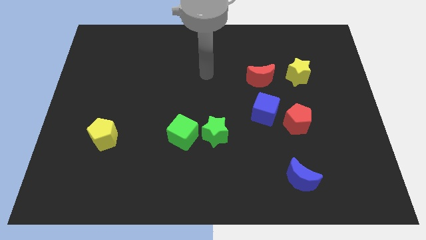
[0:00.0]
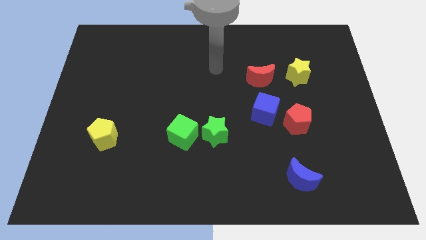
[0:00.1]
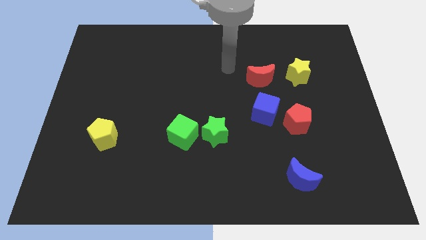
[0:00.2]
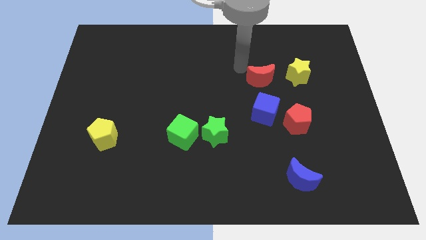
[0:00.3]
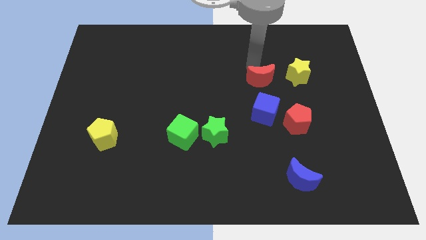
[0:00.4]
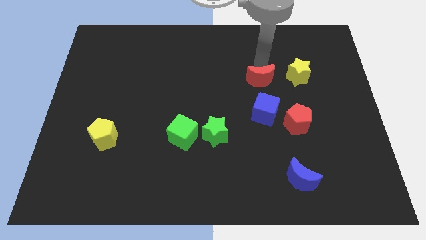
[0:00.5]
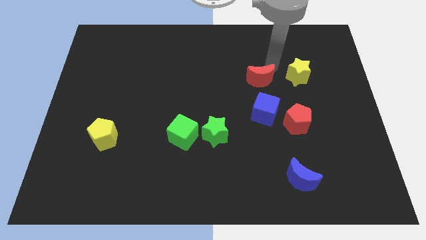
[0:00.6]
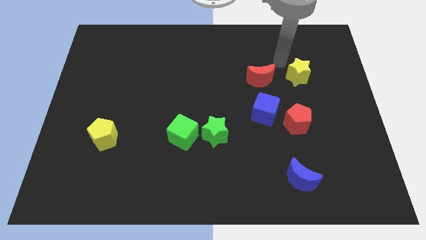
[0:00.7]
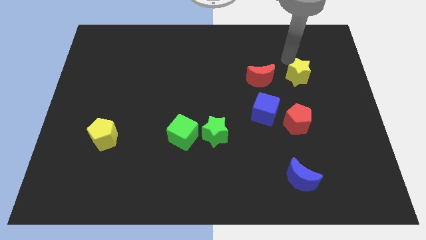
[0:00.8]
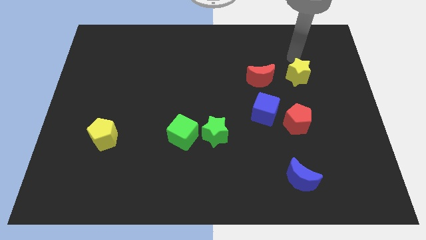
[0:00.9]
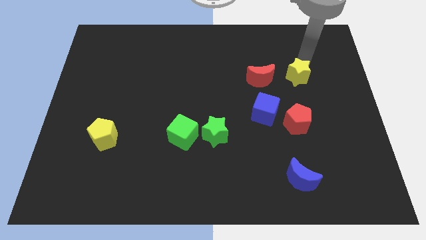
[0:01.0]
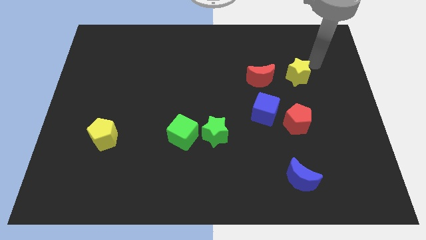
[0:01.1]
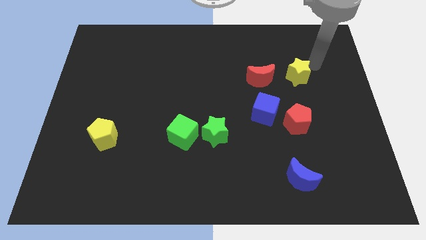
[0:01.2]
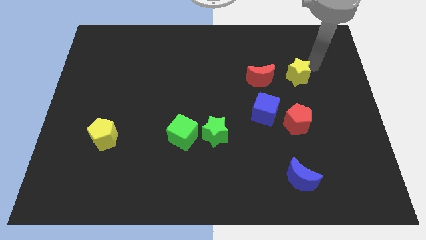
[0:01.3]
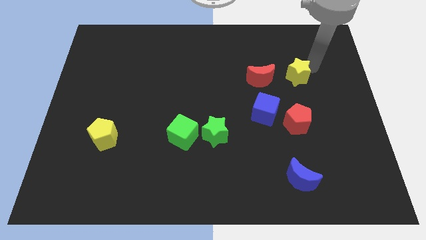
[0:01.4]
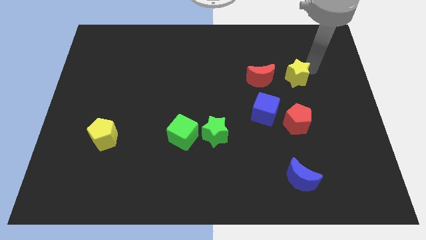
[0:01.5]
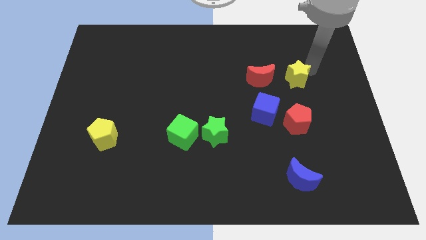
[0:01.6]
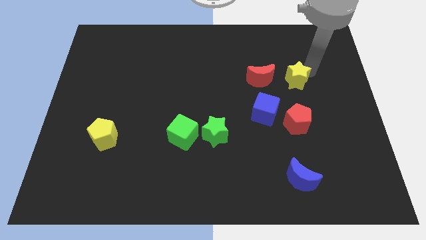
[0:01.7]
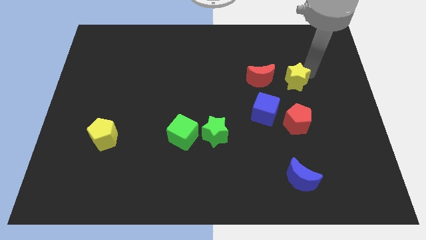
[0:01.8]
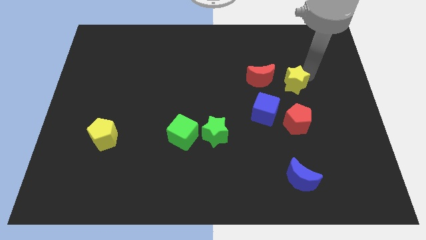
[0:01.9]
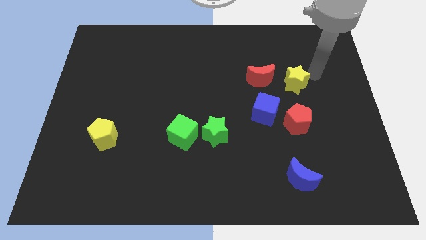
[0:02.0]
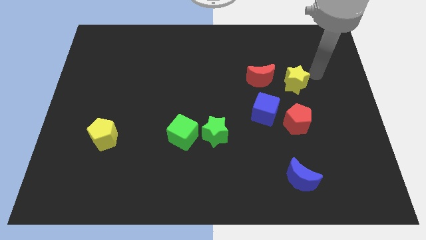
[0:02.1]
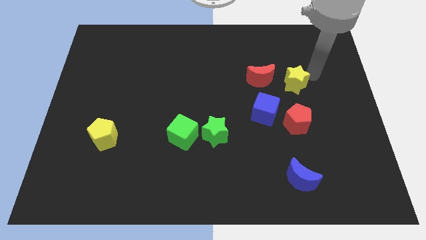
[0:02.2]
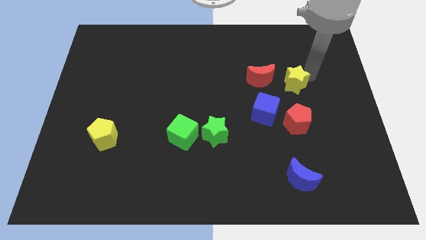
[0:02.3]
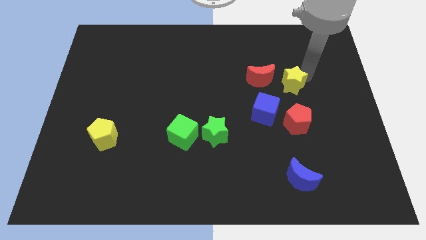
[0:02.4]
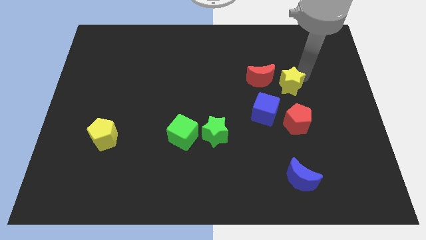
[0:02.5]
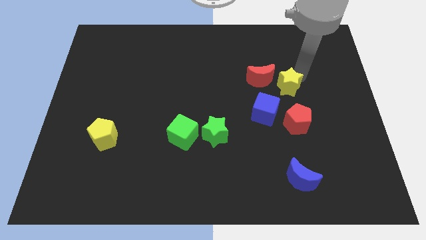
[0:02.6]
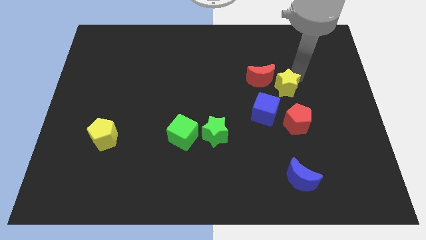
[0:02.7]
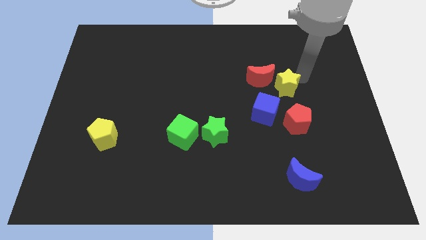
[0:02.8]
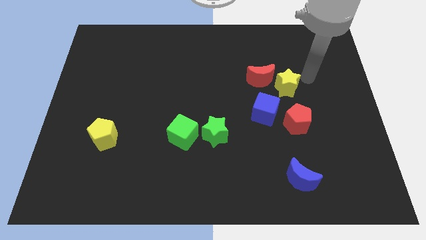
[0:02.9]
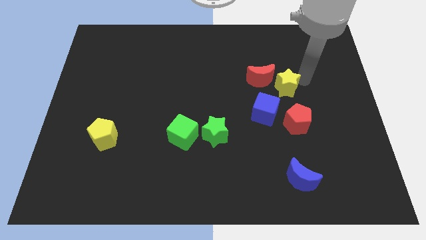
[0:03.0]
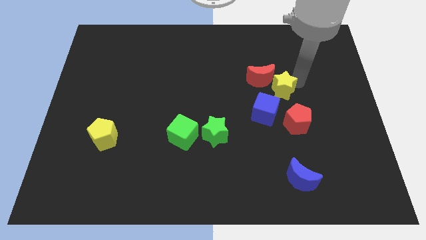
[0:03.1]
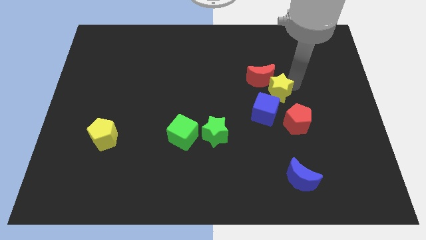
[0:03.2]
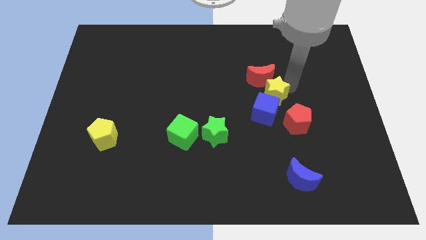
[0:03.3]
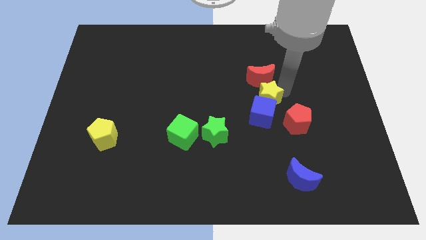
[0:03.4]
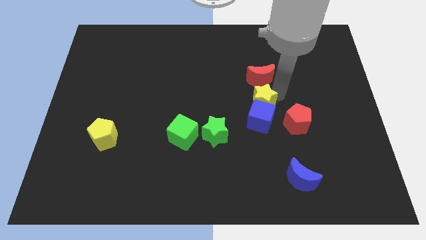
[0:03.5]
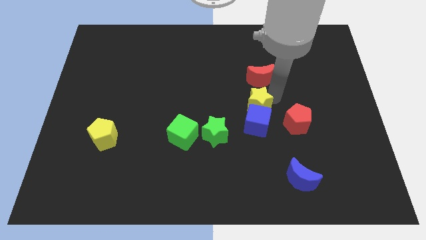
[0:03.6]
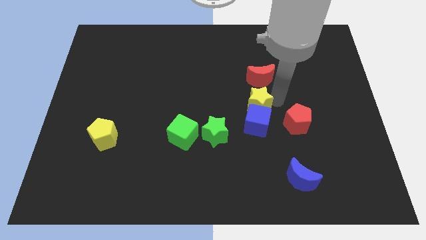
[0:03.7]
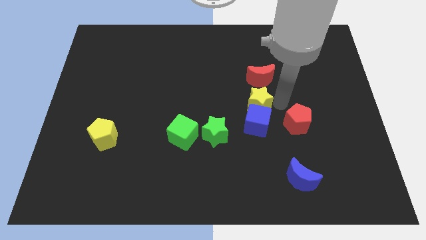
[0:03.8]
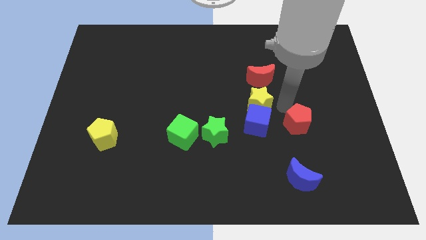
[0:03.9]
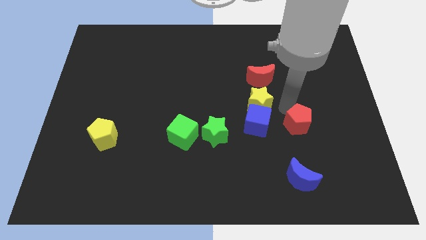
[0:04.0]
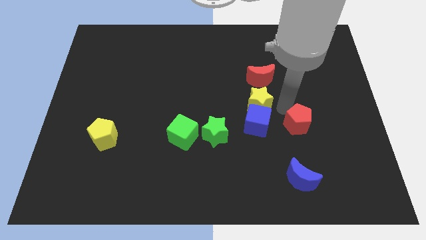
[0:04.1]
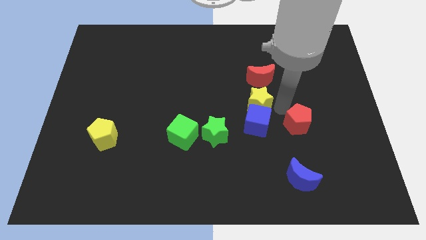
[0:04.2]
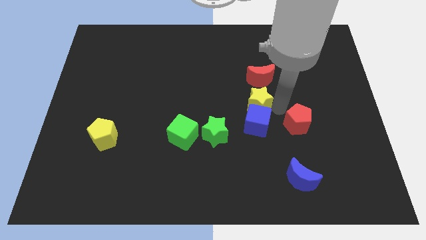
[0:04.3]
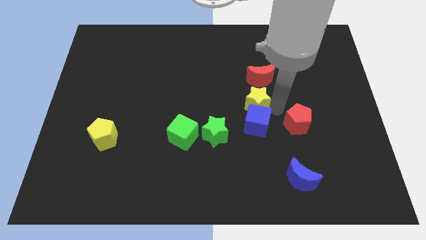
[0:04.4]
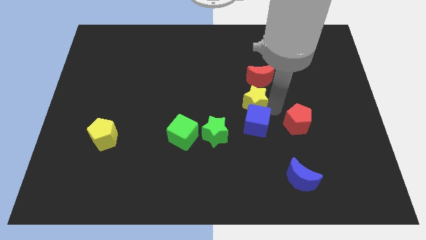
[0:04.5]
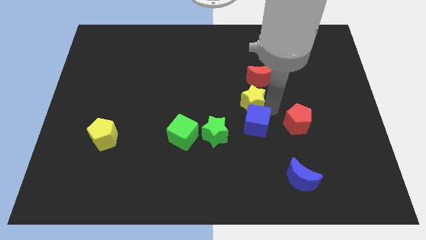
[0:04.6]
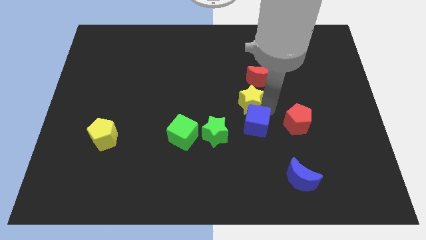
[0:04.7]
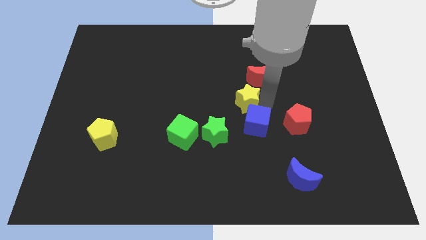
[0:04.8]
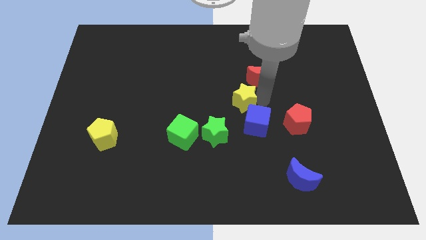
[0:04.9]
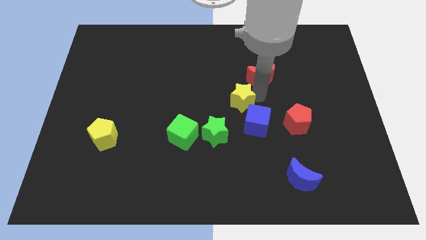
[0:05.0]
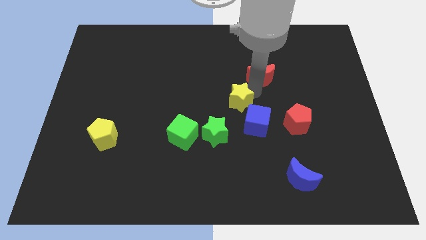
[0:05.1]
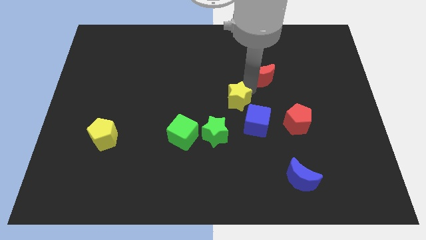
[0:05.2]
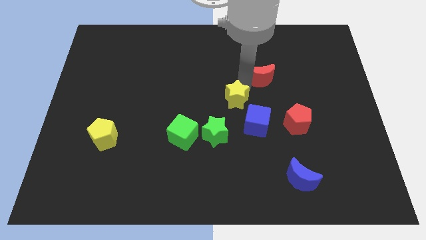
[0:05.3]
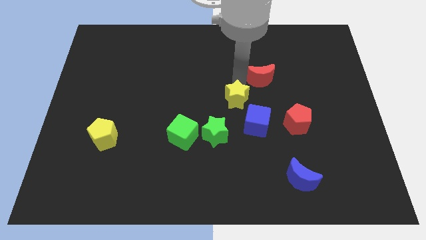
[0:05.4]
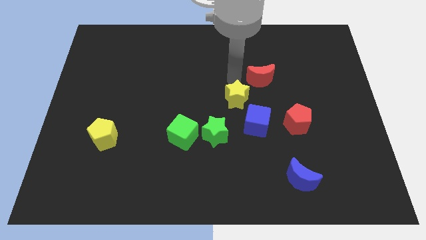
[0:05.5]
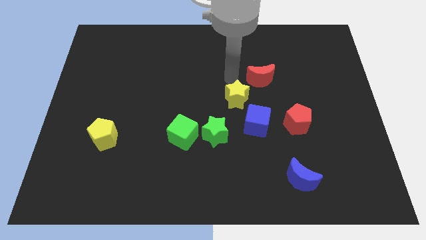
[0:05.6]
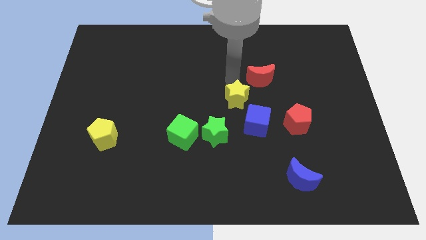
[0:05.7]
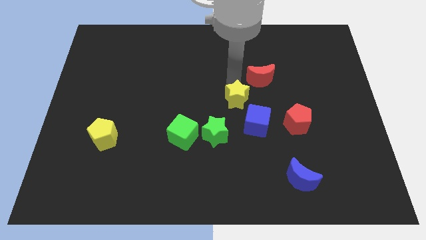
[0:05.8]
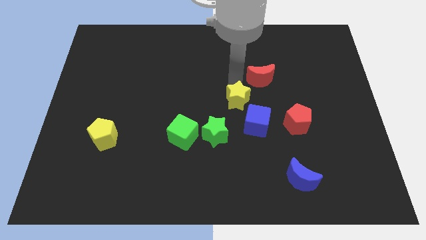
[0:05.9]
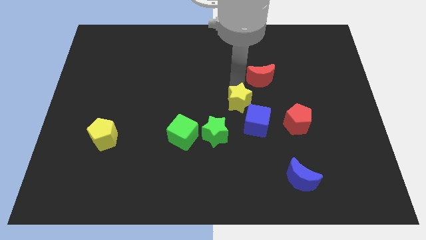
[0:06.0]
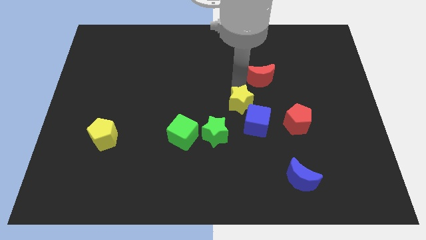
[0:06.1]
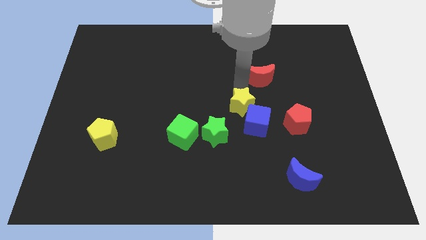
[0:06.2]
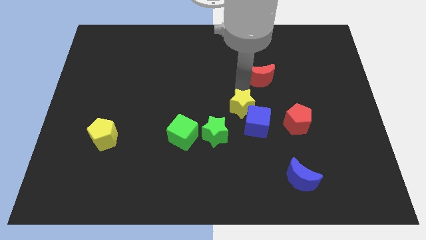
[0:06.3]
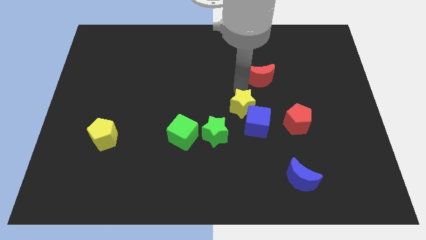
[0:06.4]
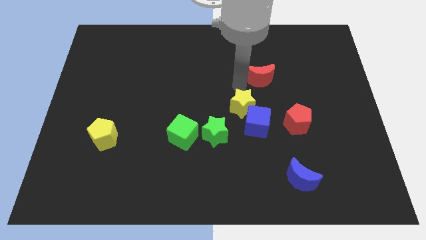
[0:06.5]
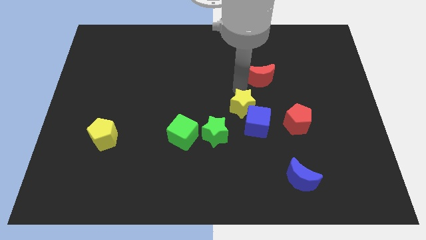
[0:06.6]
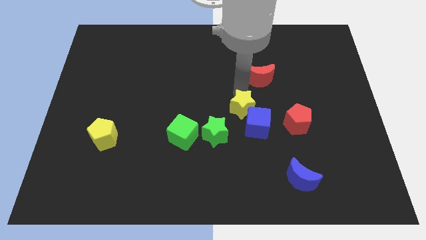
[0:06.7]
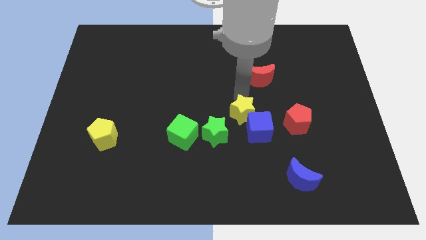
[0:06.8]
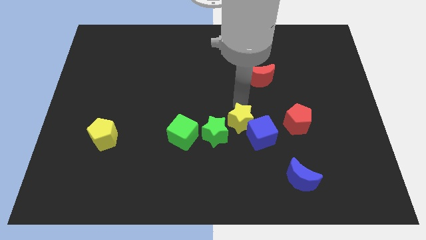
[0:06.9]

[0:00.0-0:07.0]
push the yellow star diagonally downwards and left

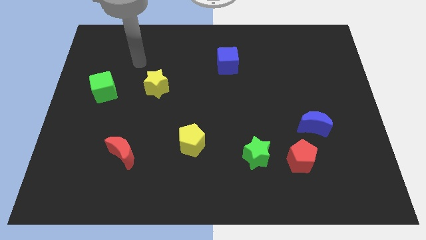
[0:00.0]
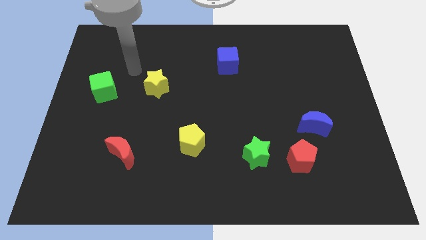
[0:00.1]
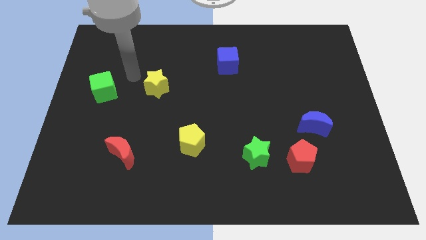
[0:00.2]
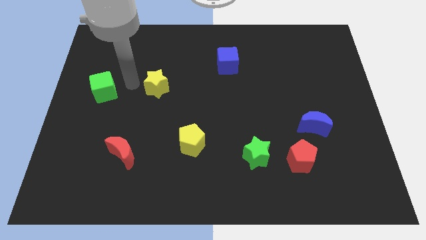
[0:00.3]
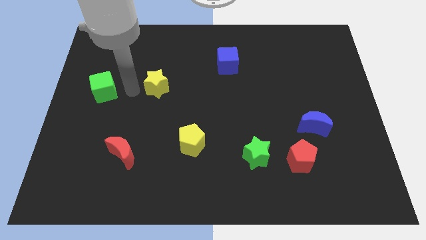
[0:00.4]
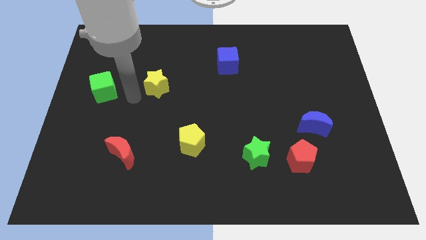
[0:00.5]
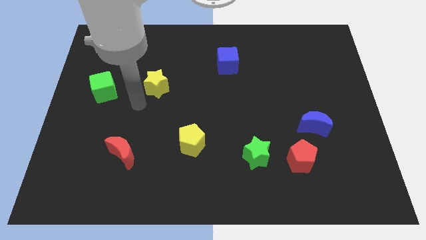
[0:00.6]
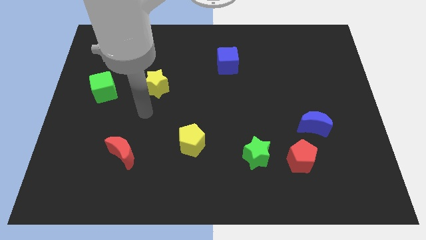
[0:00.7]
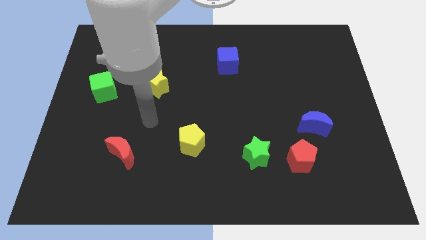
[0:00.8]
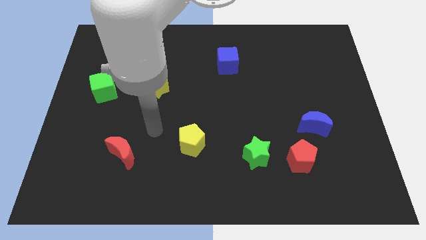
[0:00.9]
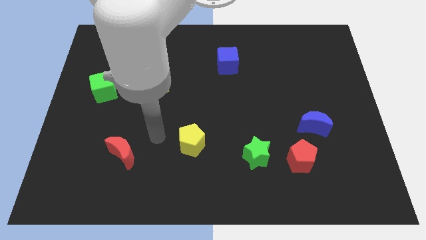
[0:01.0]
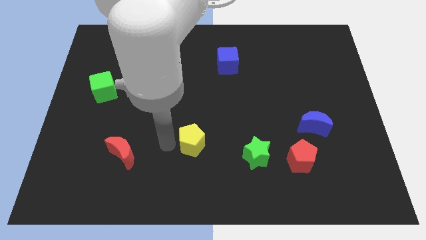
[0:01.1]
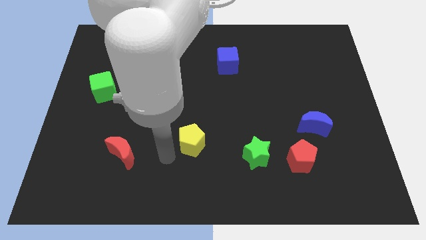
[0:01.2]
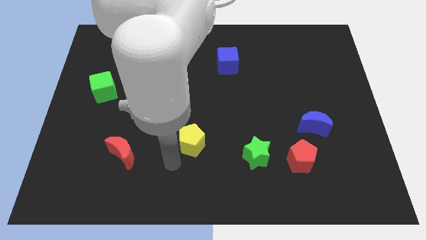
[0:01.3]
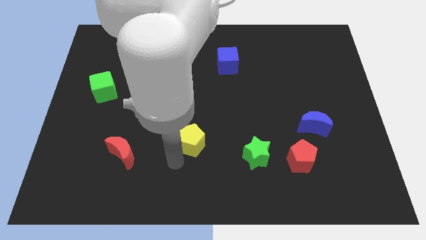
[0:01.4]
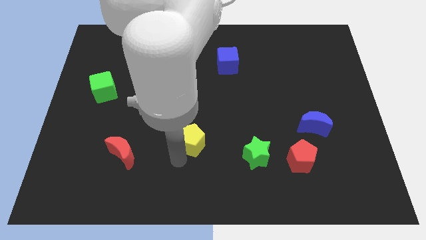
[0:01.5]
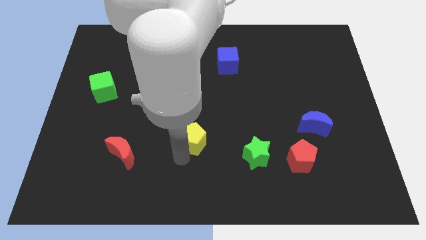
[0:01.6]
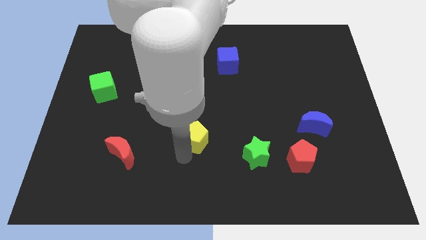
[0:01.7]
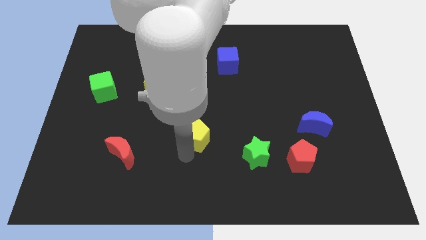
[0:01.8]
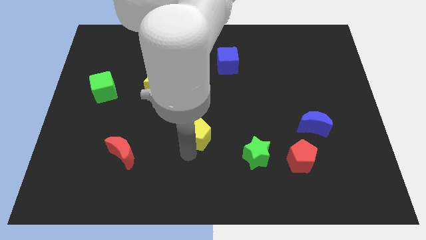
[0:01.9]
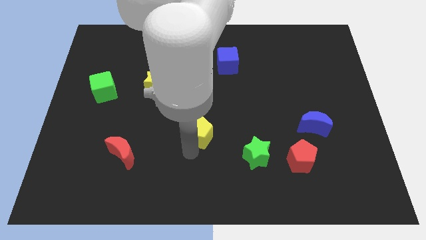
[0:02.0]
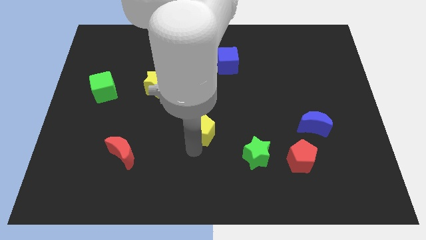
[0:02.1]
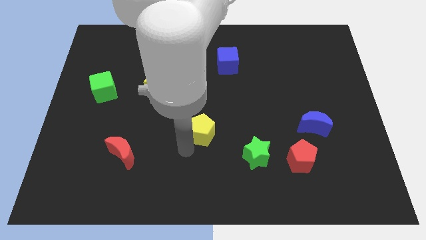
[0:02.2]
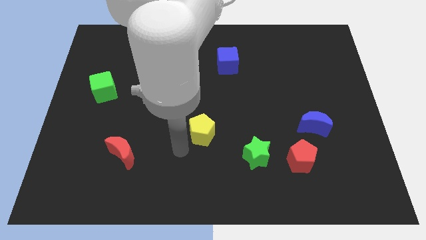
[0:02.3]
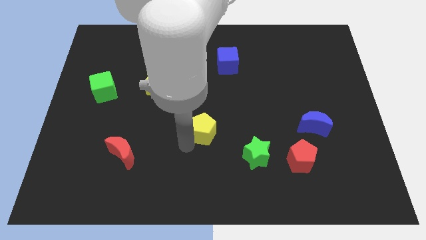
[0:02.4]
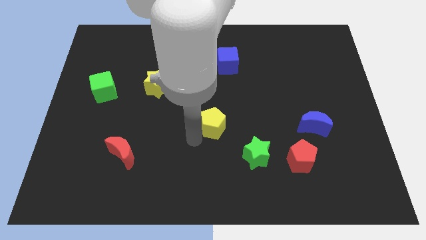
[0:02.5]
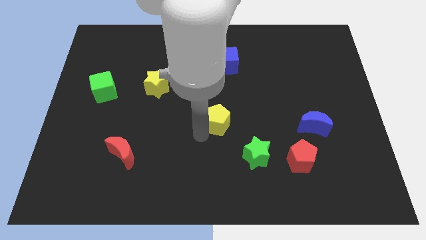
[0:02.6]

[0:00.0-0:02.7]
slide the yellow pentagon a little bit up and to the right diagonally
